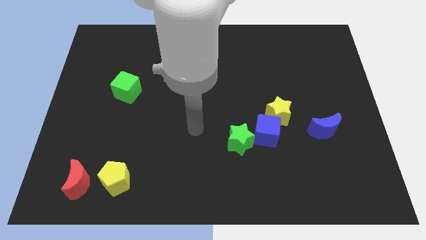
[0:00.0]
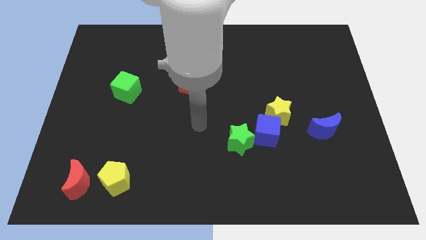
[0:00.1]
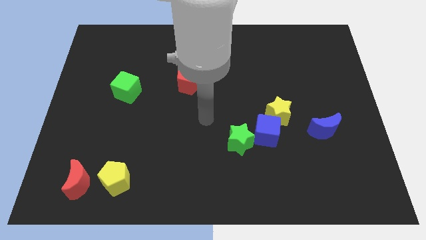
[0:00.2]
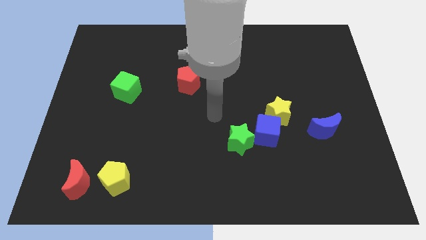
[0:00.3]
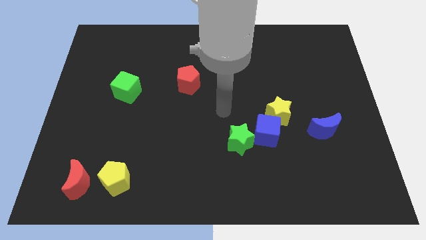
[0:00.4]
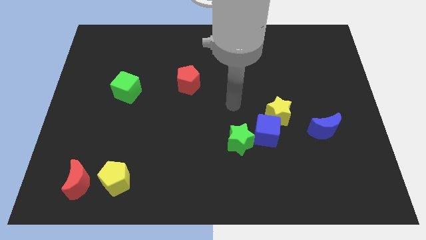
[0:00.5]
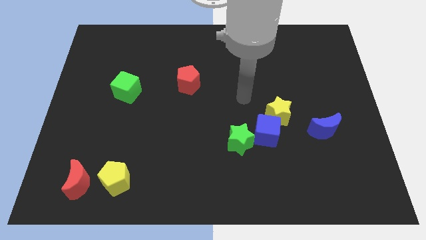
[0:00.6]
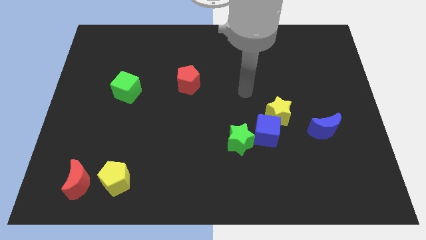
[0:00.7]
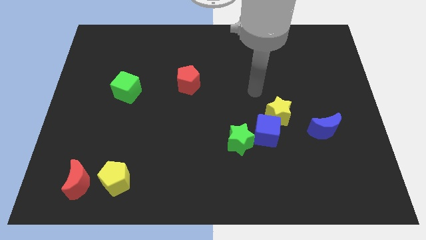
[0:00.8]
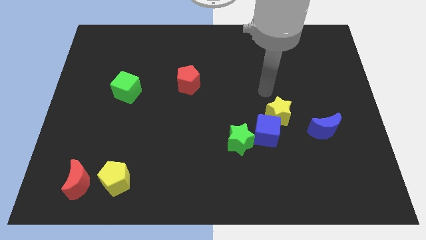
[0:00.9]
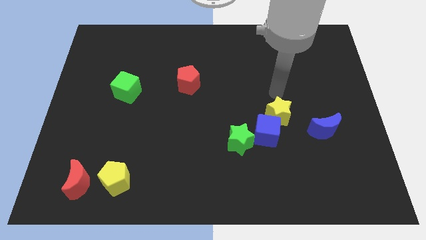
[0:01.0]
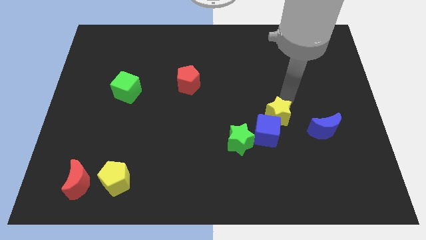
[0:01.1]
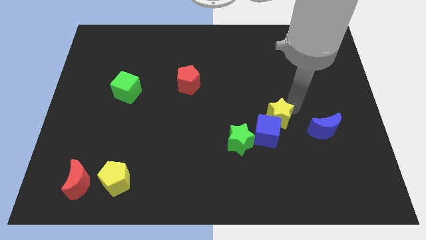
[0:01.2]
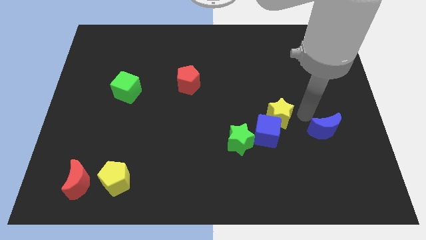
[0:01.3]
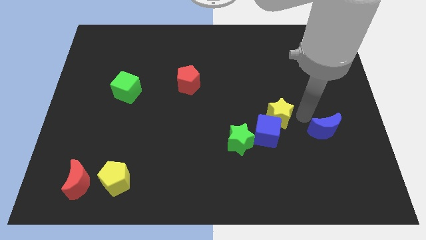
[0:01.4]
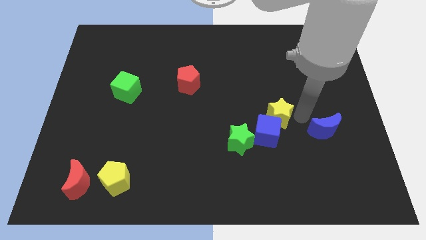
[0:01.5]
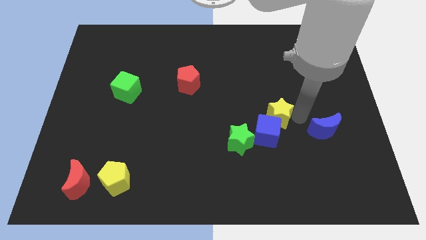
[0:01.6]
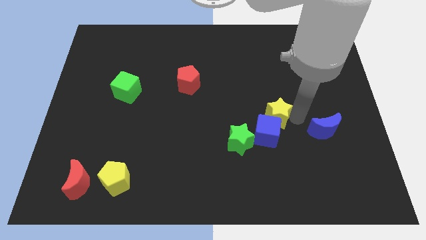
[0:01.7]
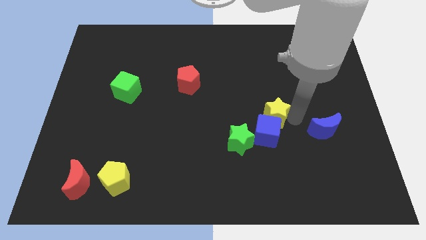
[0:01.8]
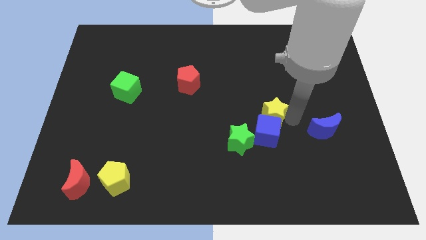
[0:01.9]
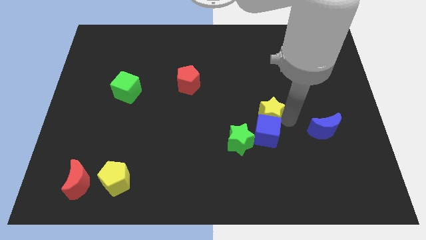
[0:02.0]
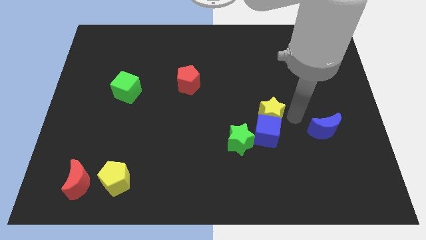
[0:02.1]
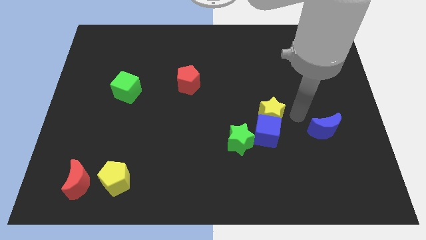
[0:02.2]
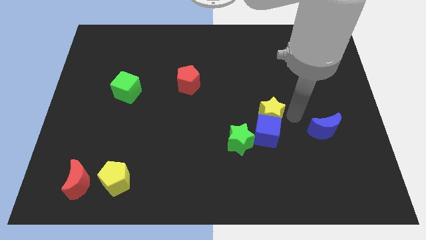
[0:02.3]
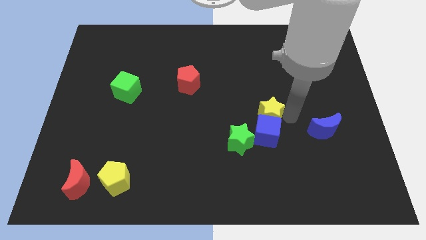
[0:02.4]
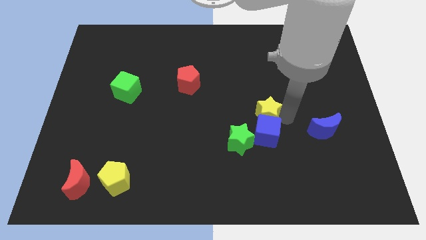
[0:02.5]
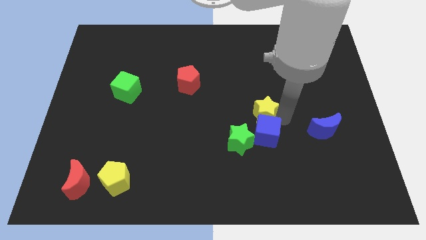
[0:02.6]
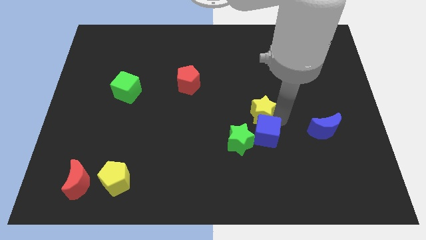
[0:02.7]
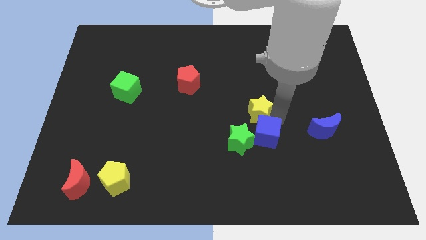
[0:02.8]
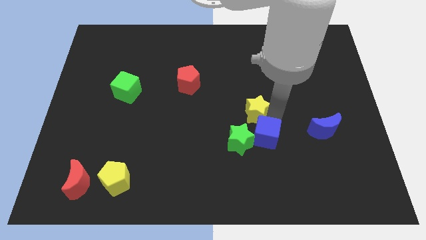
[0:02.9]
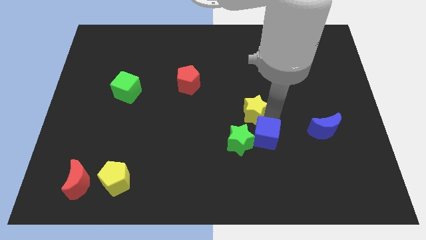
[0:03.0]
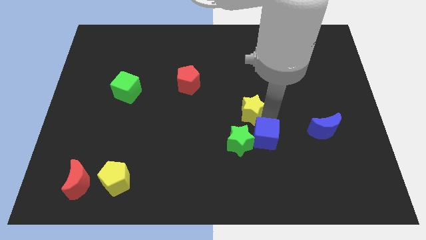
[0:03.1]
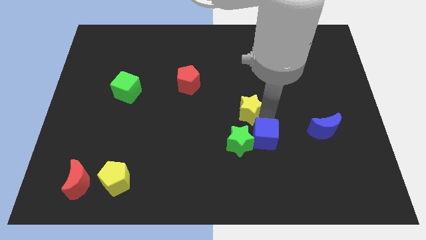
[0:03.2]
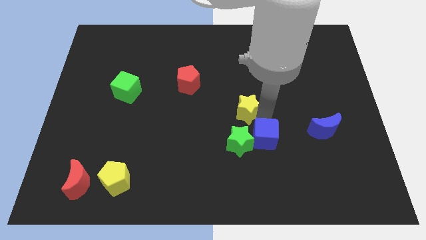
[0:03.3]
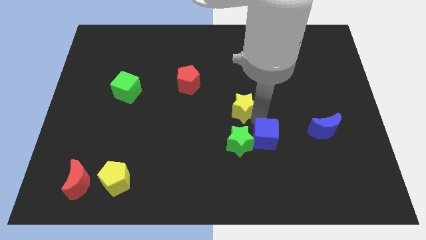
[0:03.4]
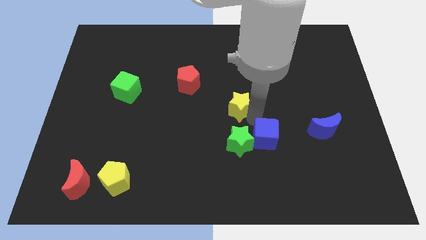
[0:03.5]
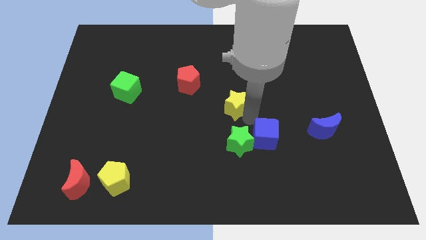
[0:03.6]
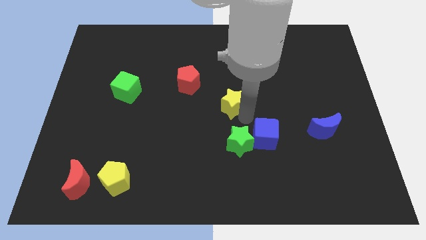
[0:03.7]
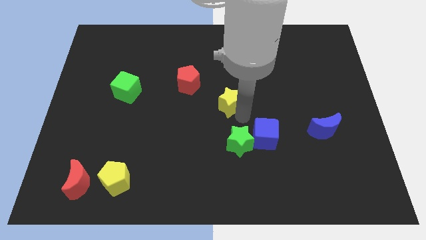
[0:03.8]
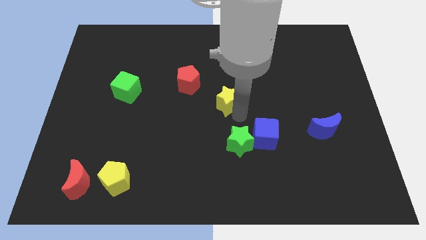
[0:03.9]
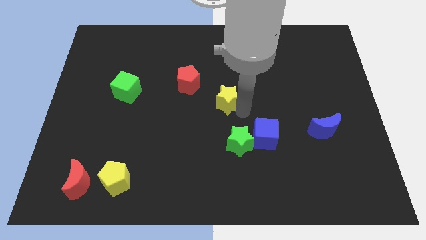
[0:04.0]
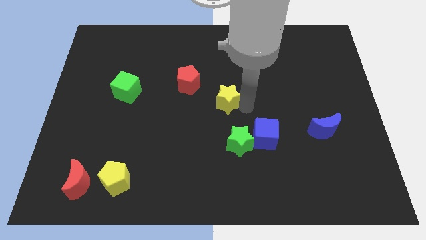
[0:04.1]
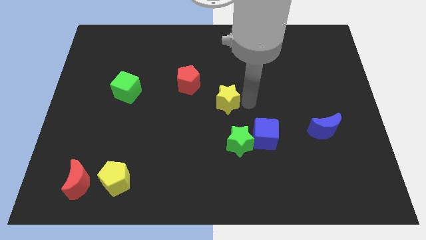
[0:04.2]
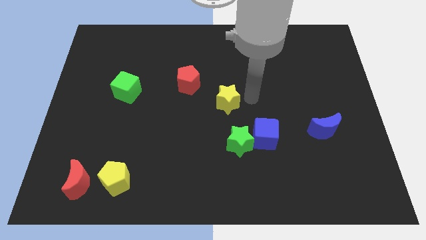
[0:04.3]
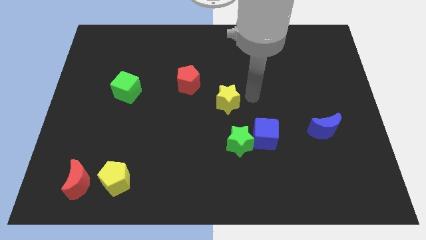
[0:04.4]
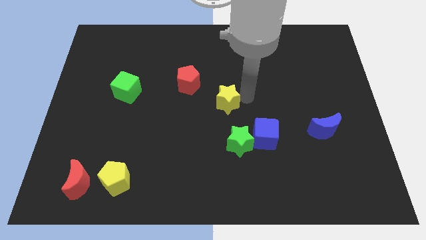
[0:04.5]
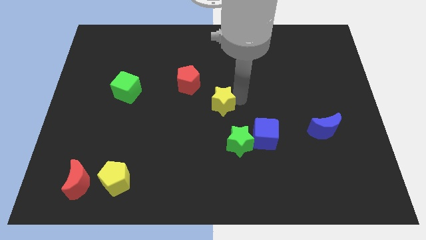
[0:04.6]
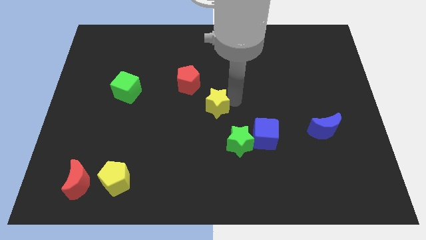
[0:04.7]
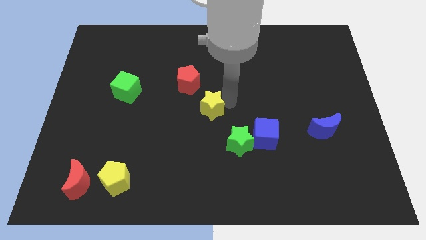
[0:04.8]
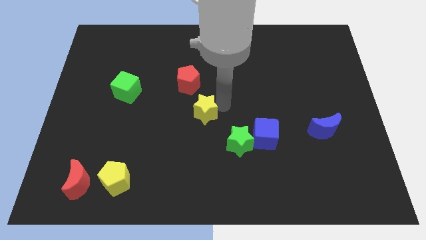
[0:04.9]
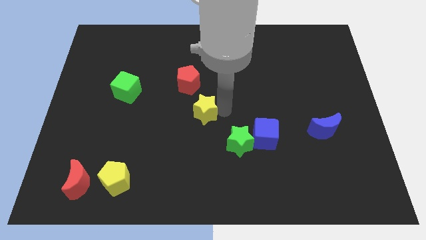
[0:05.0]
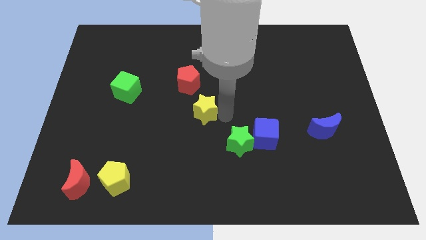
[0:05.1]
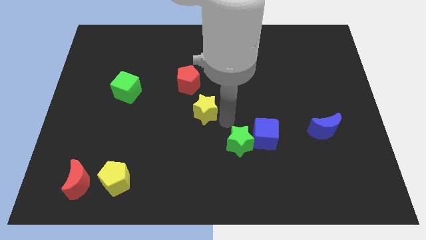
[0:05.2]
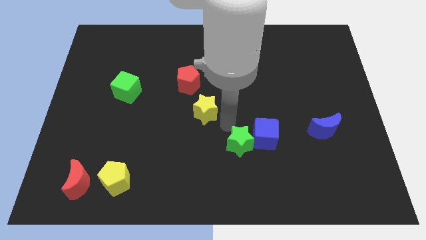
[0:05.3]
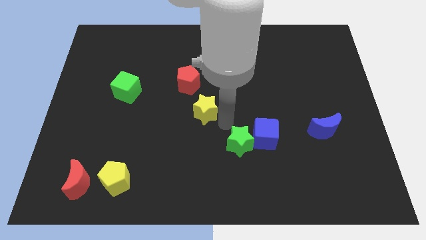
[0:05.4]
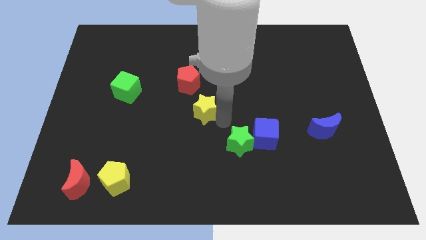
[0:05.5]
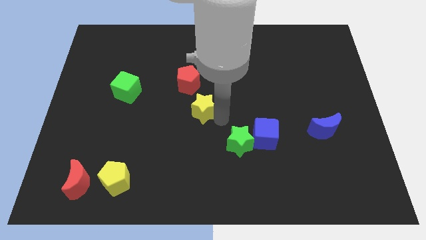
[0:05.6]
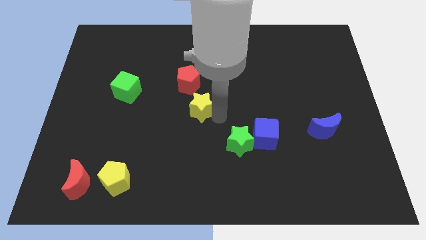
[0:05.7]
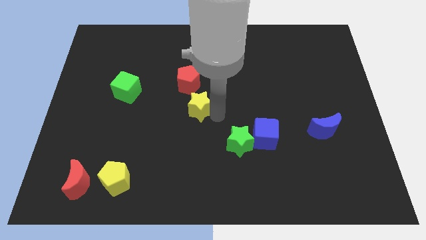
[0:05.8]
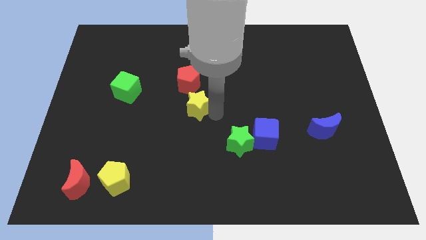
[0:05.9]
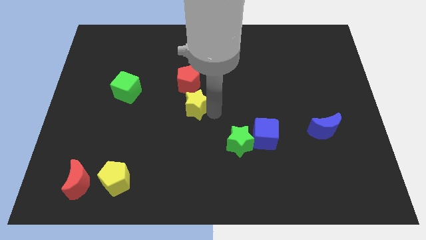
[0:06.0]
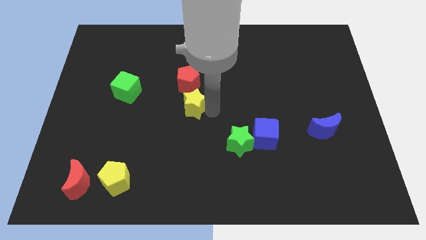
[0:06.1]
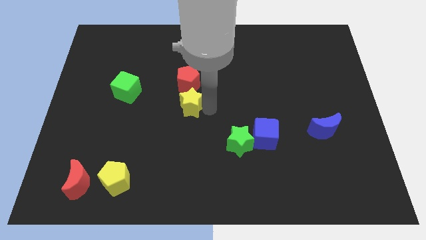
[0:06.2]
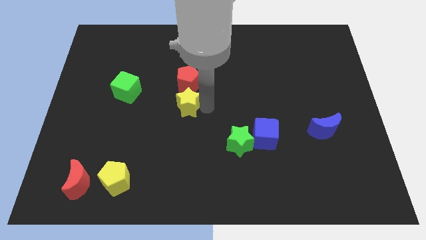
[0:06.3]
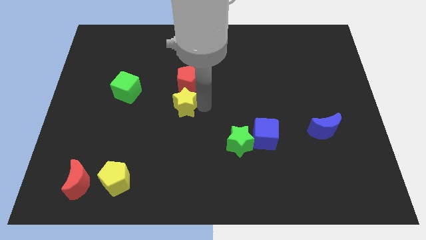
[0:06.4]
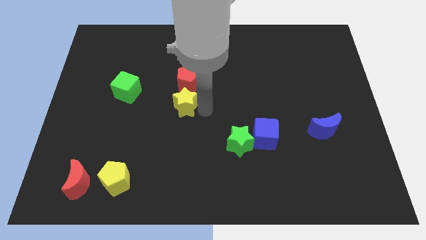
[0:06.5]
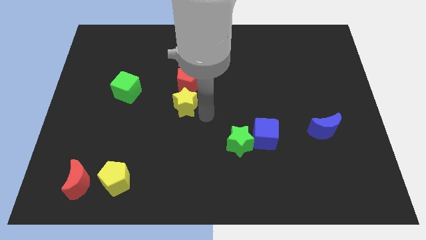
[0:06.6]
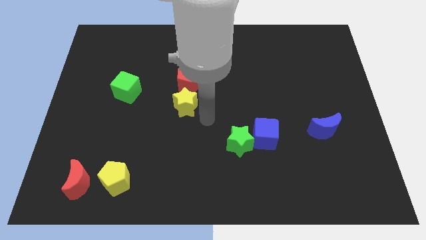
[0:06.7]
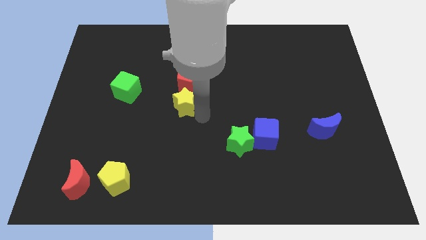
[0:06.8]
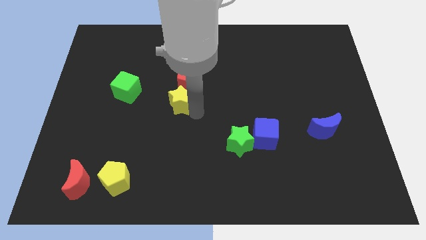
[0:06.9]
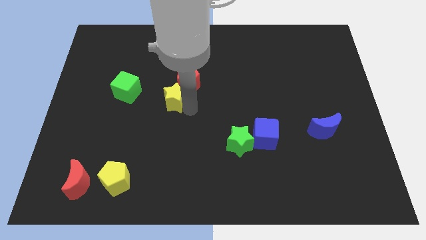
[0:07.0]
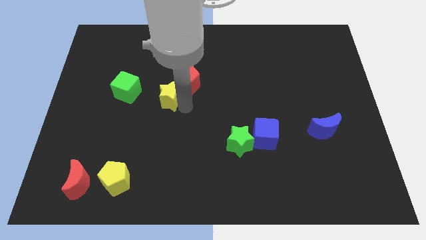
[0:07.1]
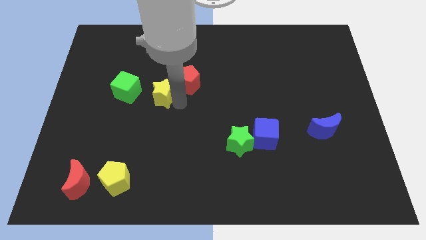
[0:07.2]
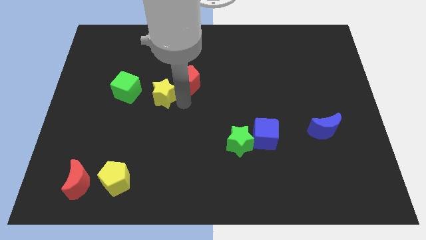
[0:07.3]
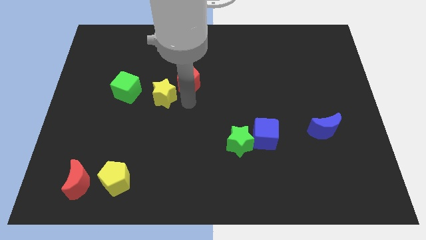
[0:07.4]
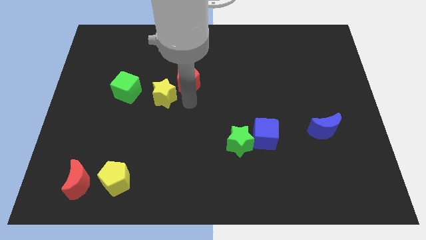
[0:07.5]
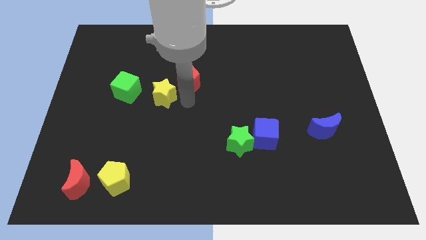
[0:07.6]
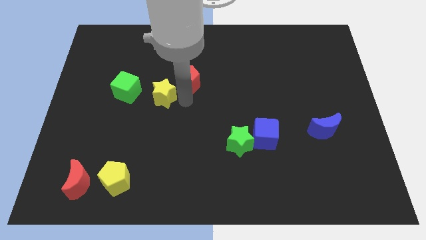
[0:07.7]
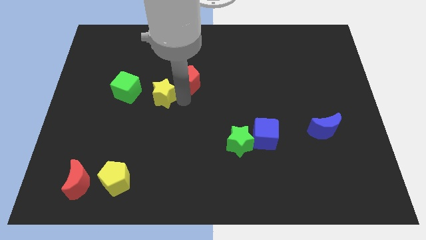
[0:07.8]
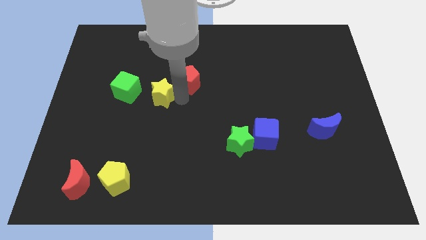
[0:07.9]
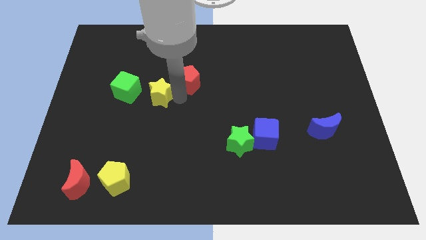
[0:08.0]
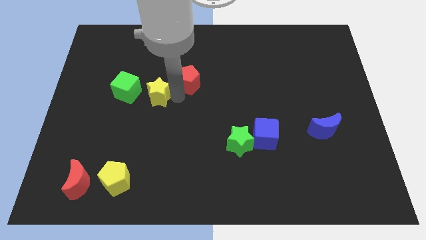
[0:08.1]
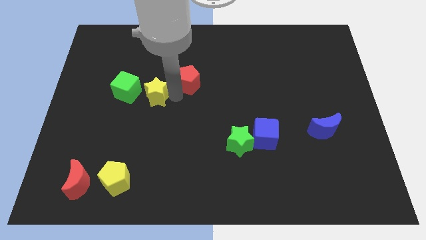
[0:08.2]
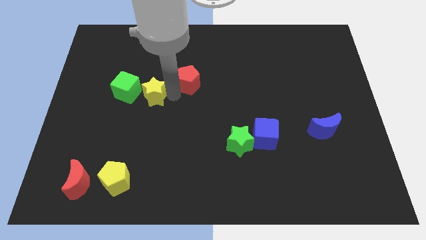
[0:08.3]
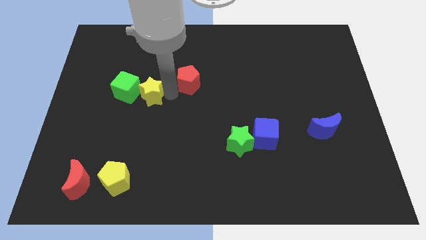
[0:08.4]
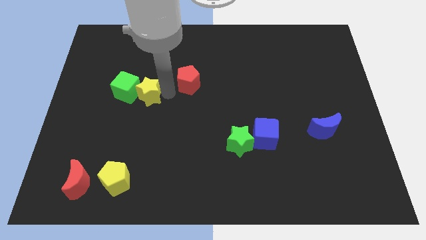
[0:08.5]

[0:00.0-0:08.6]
move the yellow star towards the green cube
